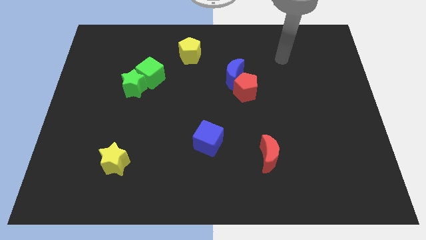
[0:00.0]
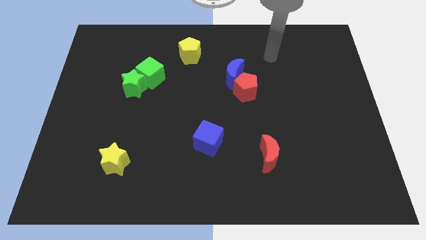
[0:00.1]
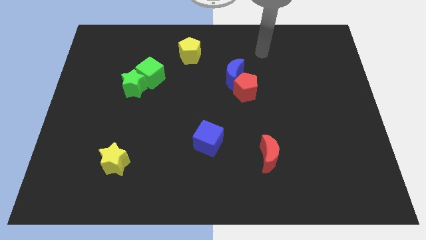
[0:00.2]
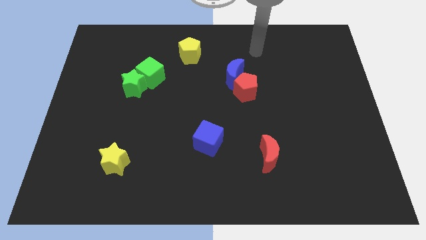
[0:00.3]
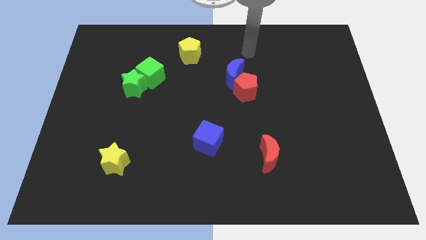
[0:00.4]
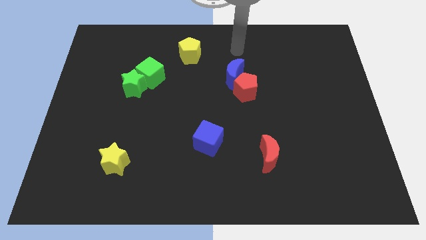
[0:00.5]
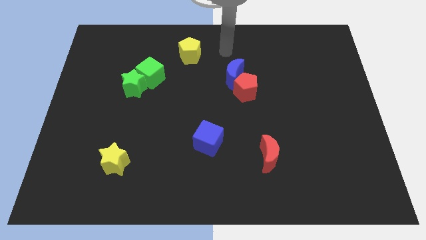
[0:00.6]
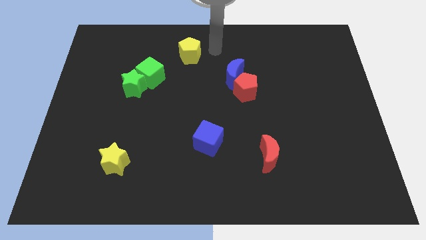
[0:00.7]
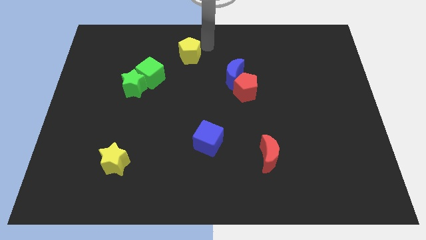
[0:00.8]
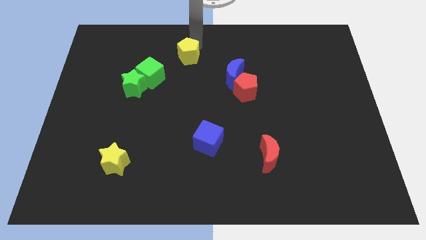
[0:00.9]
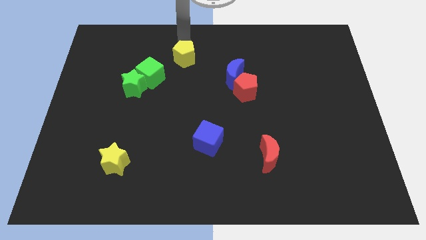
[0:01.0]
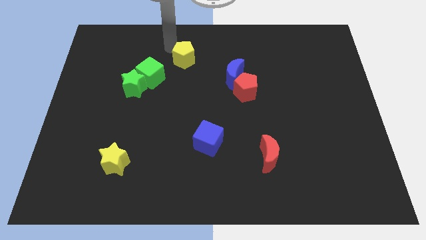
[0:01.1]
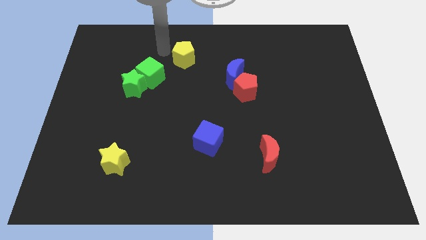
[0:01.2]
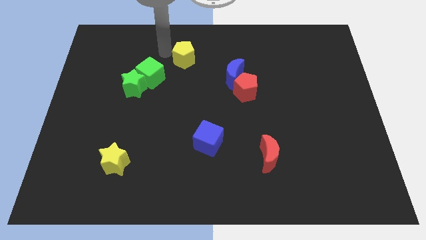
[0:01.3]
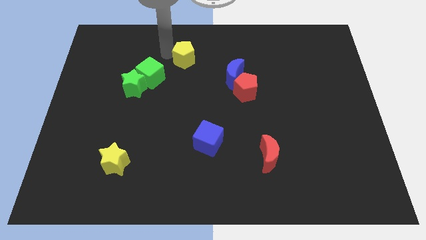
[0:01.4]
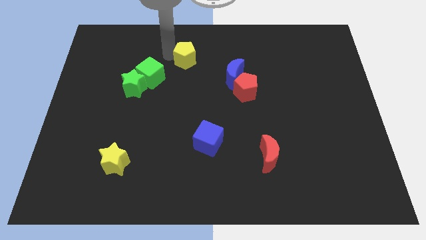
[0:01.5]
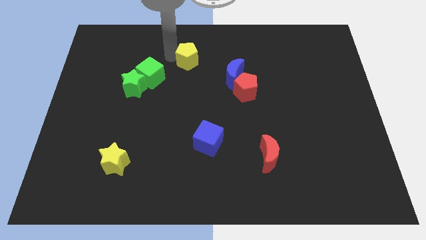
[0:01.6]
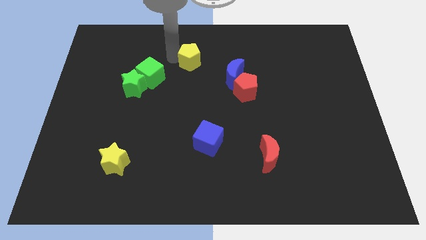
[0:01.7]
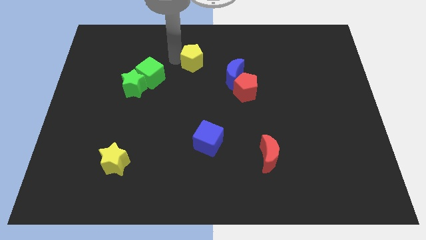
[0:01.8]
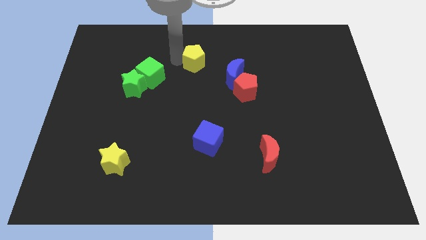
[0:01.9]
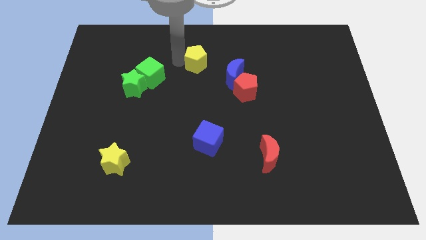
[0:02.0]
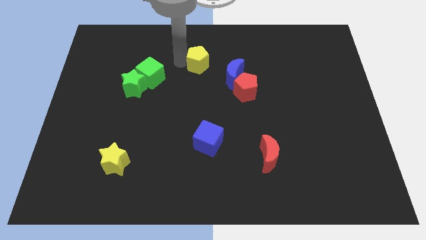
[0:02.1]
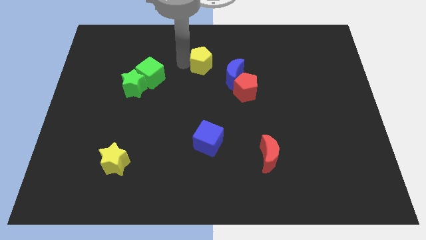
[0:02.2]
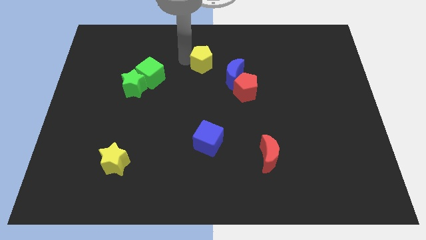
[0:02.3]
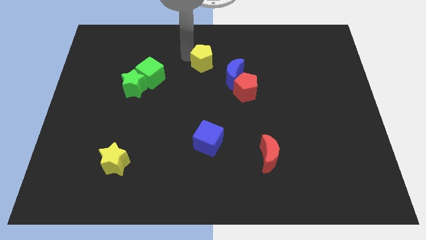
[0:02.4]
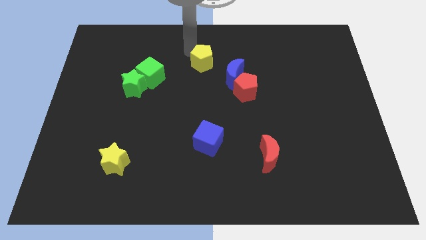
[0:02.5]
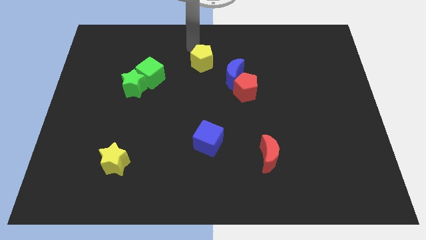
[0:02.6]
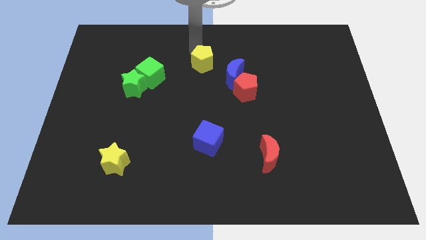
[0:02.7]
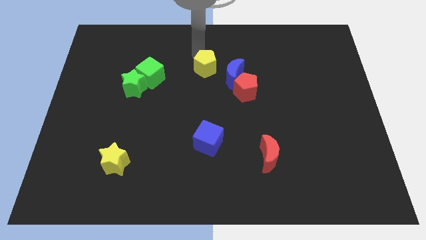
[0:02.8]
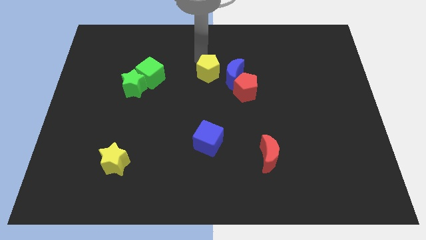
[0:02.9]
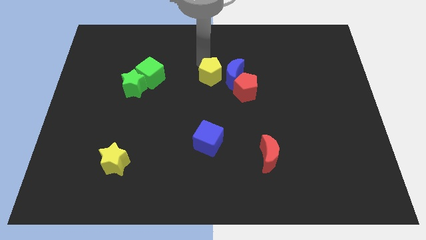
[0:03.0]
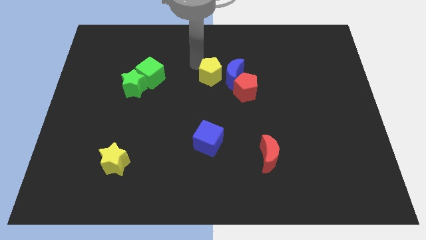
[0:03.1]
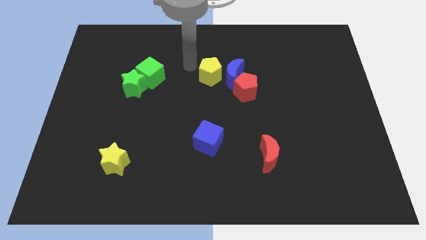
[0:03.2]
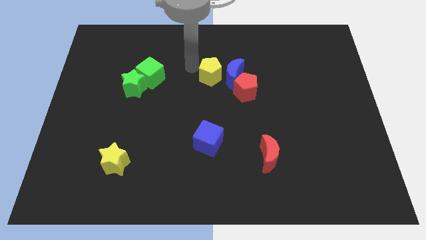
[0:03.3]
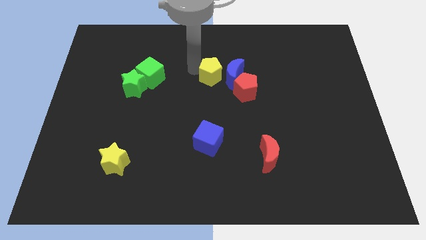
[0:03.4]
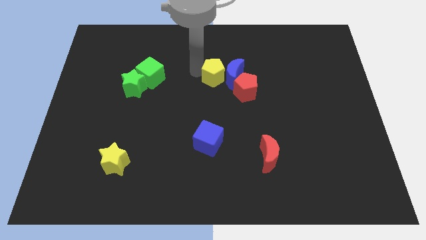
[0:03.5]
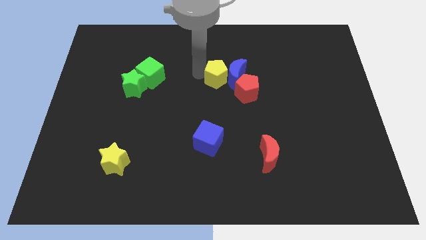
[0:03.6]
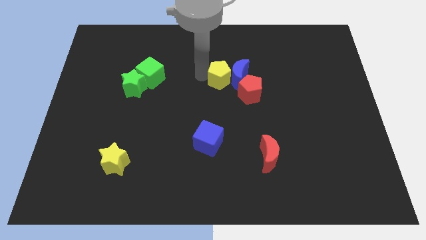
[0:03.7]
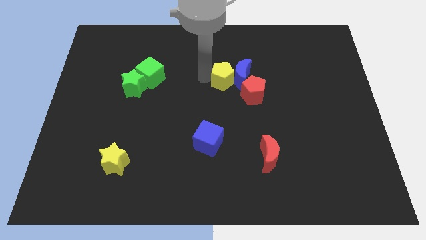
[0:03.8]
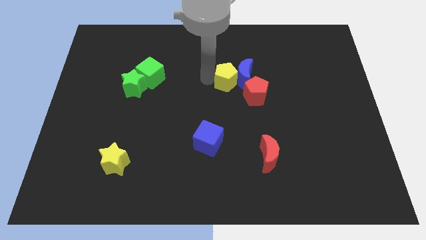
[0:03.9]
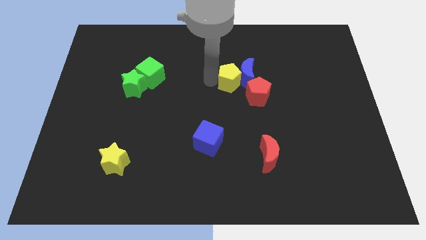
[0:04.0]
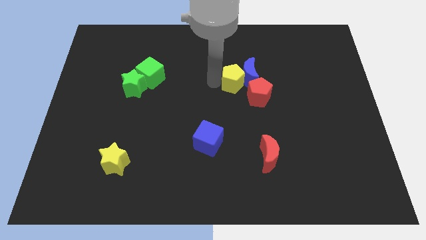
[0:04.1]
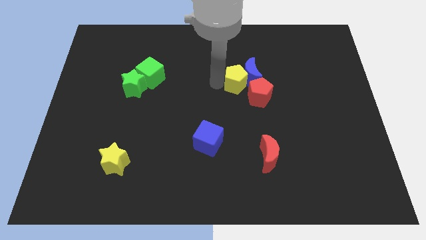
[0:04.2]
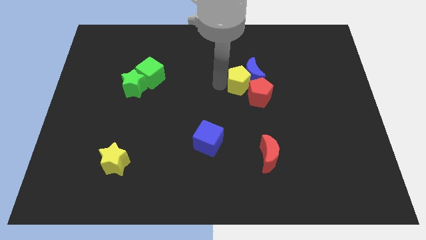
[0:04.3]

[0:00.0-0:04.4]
slide the yellow pentagon close to the red pentagon

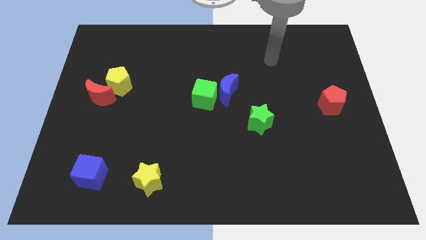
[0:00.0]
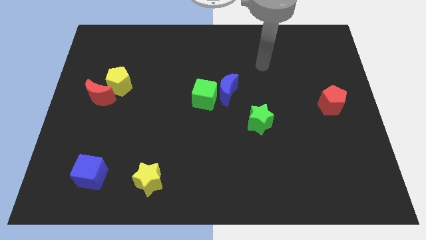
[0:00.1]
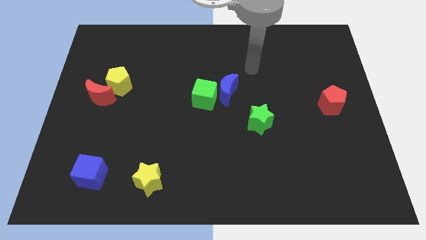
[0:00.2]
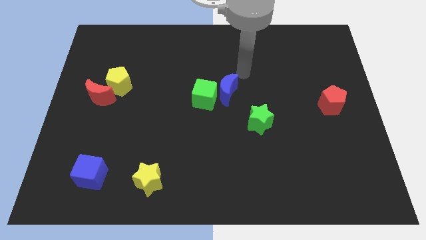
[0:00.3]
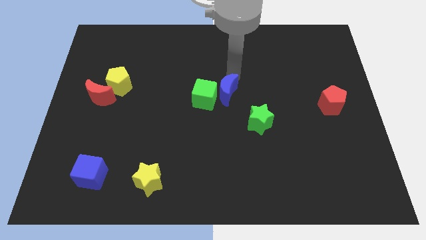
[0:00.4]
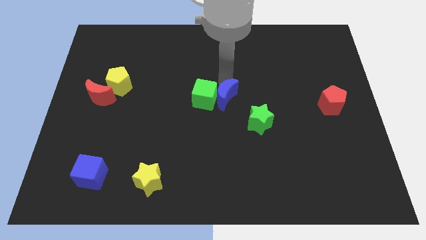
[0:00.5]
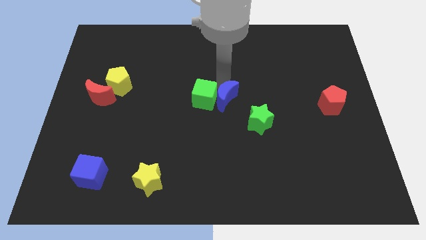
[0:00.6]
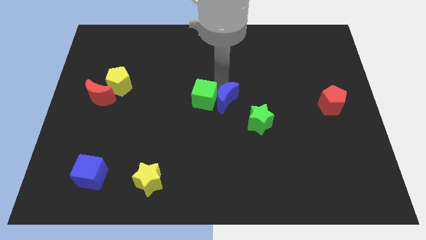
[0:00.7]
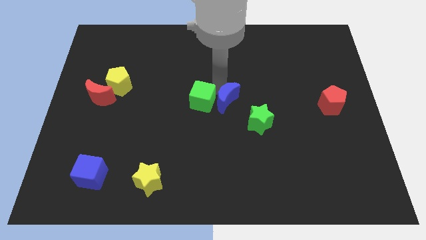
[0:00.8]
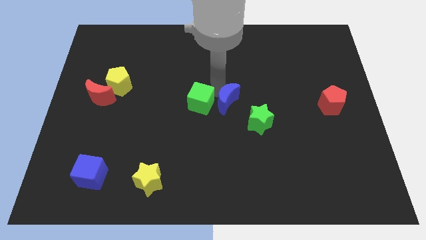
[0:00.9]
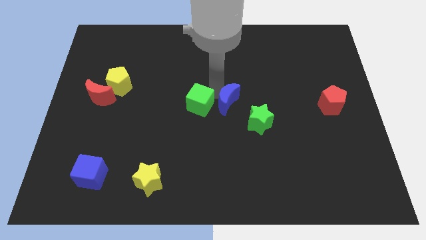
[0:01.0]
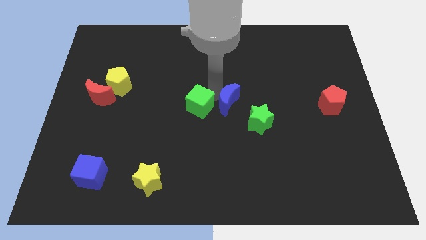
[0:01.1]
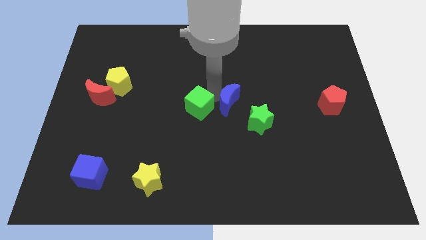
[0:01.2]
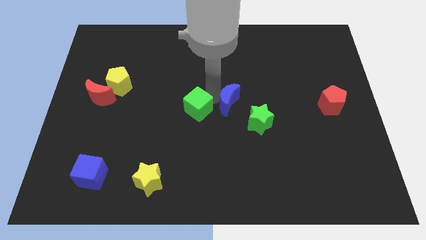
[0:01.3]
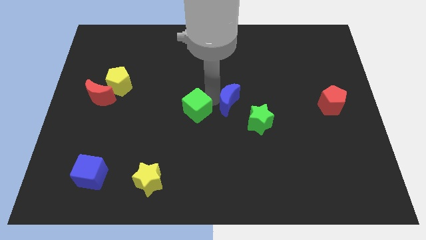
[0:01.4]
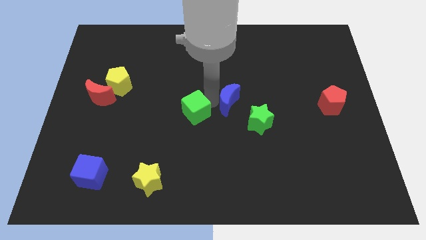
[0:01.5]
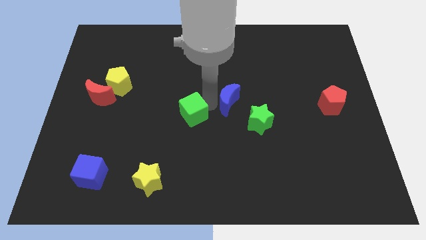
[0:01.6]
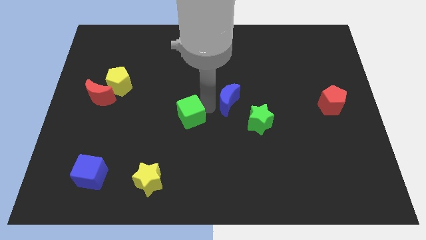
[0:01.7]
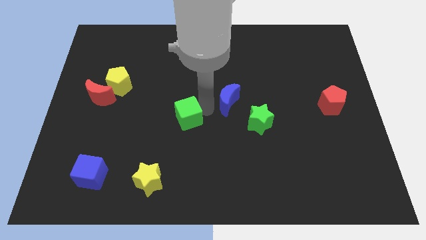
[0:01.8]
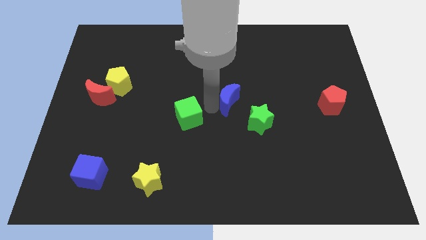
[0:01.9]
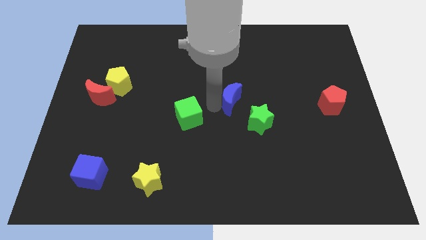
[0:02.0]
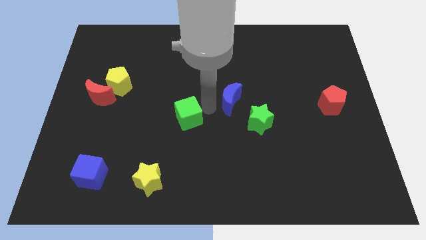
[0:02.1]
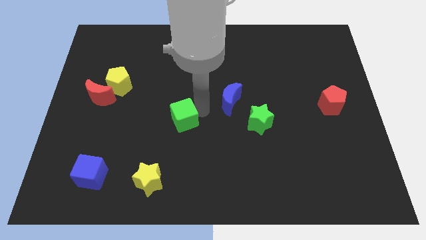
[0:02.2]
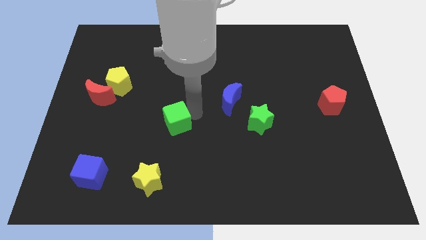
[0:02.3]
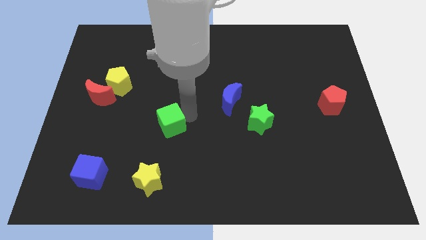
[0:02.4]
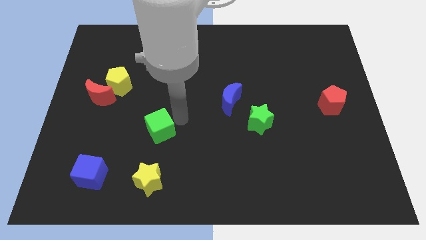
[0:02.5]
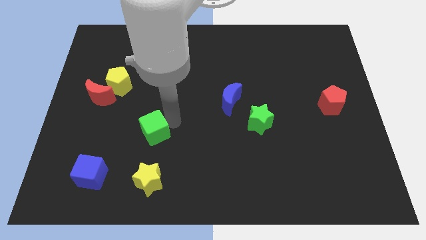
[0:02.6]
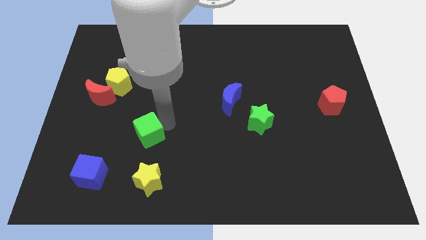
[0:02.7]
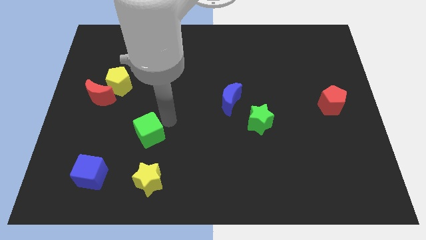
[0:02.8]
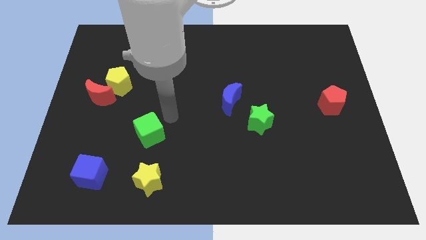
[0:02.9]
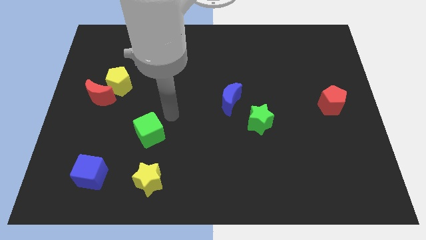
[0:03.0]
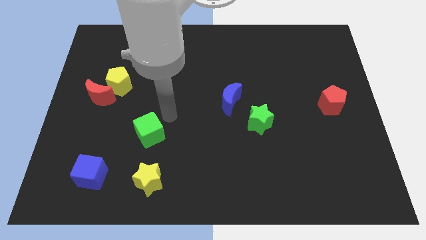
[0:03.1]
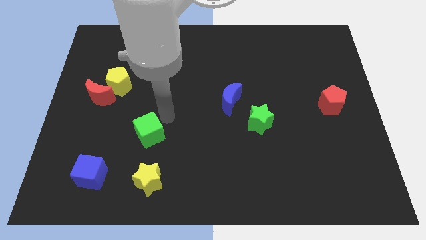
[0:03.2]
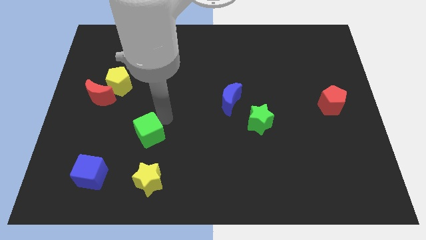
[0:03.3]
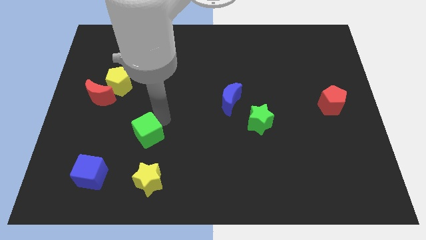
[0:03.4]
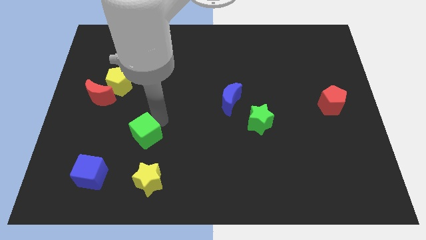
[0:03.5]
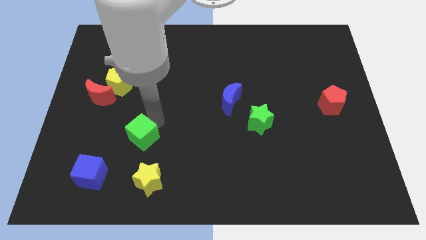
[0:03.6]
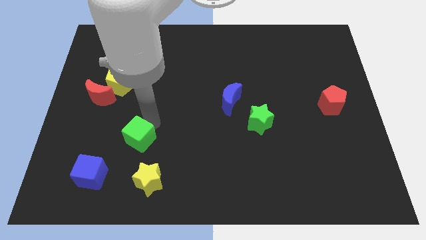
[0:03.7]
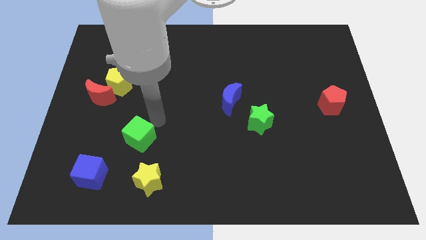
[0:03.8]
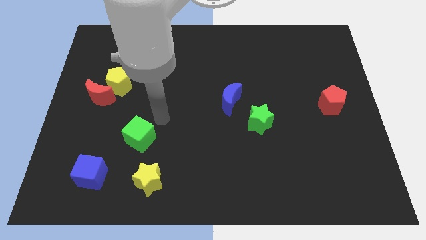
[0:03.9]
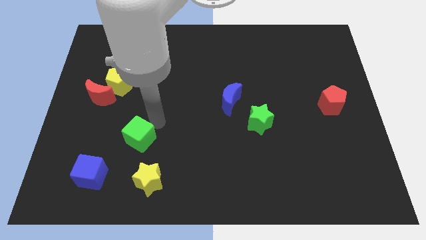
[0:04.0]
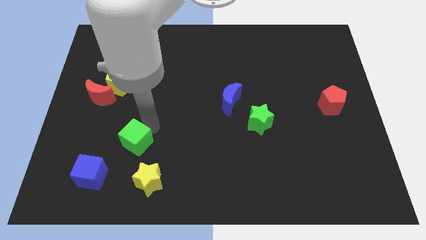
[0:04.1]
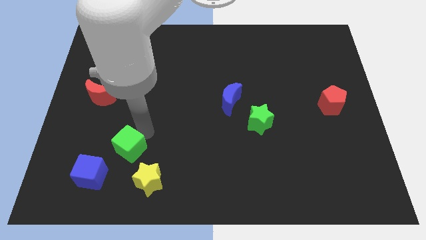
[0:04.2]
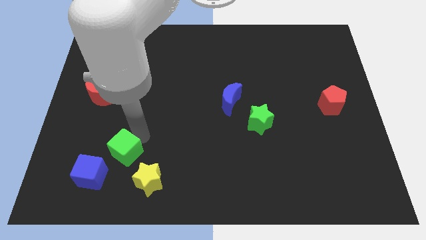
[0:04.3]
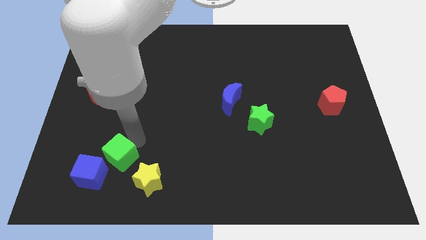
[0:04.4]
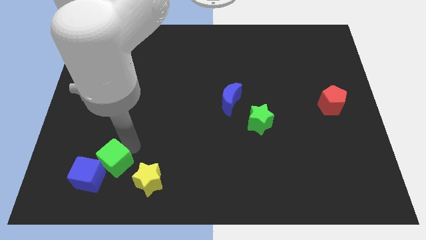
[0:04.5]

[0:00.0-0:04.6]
slide the green cube to the blue cube
